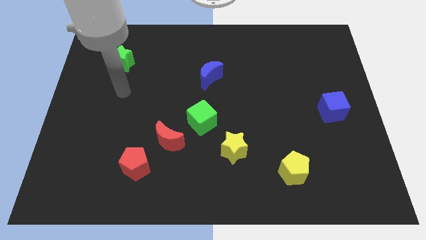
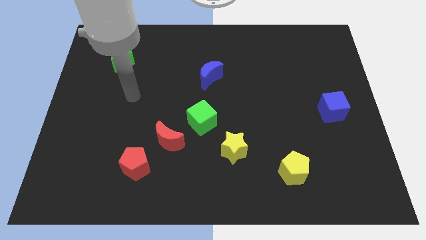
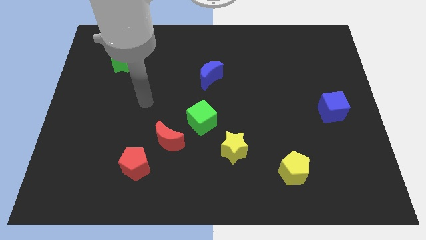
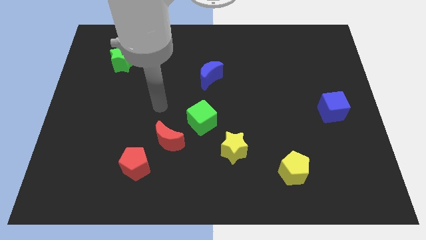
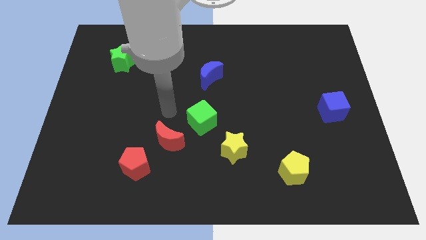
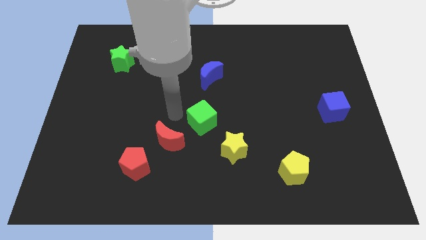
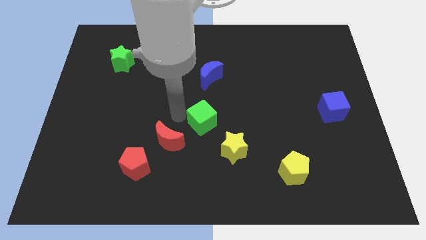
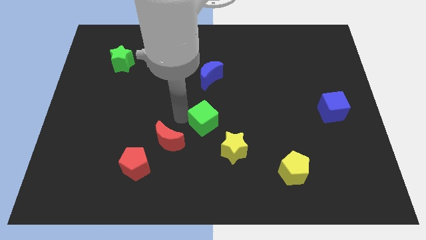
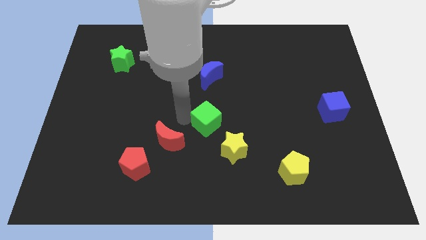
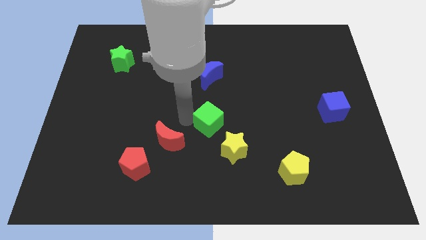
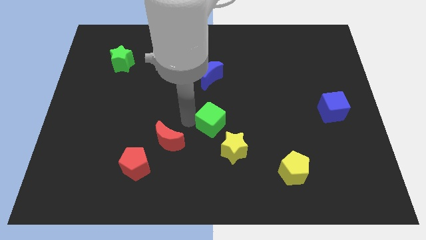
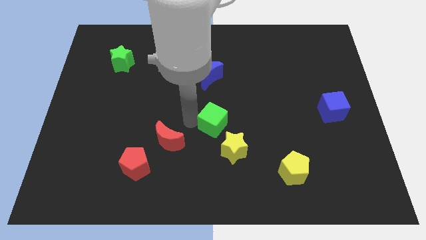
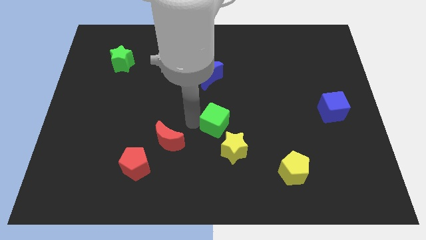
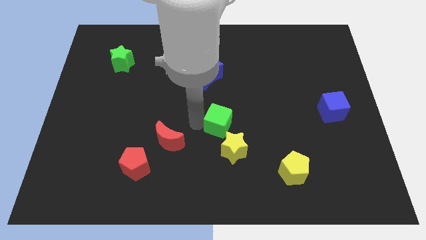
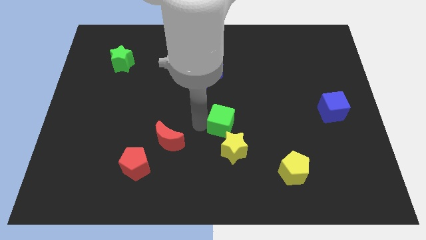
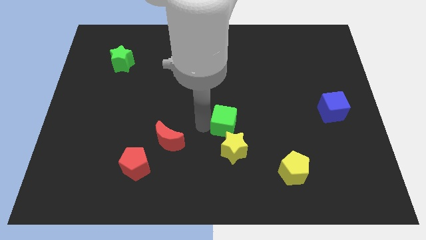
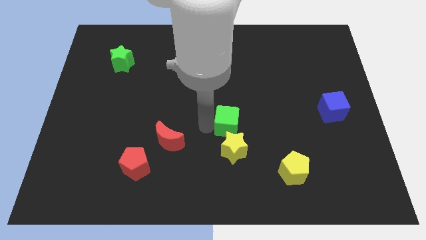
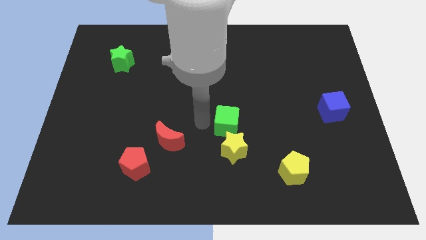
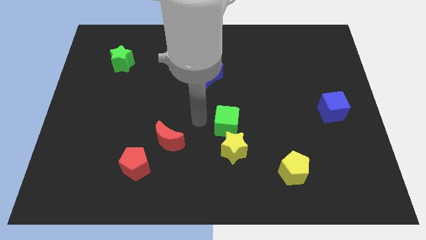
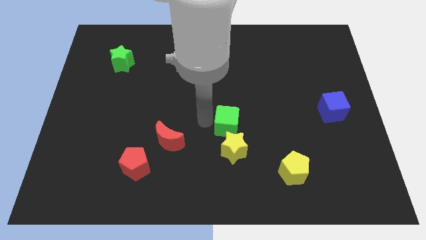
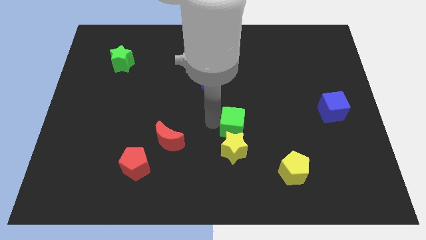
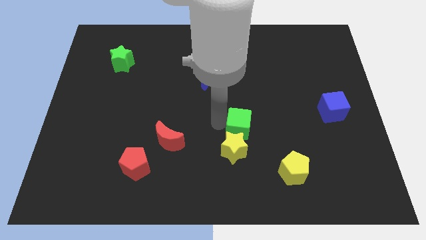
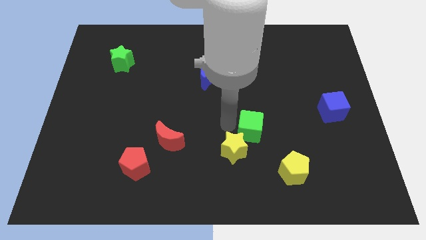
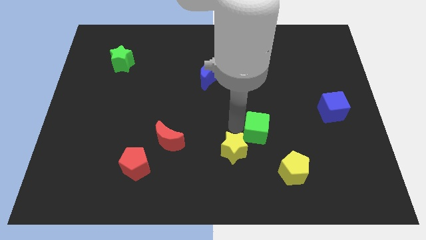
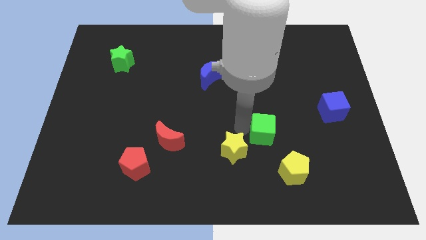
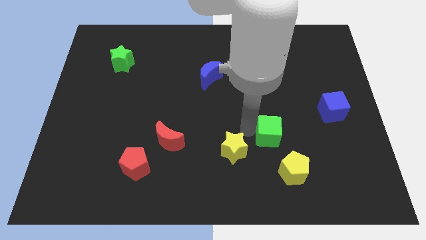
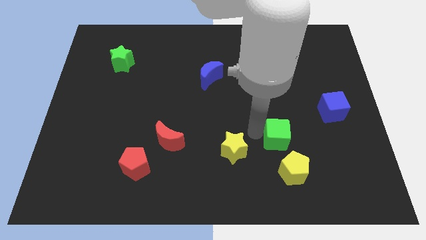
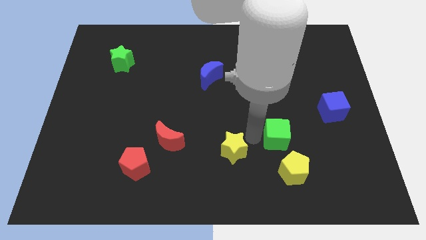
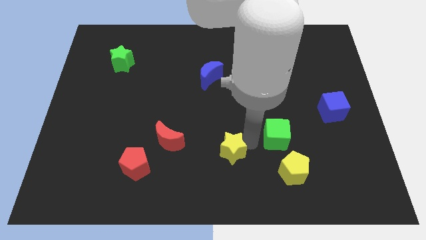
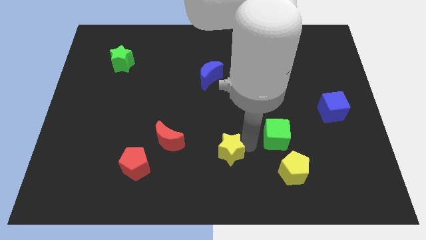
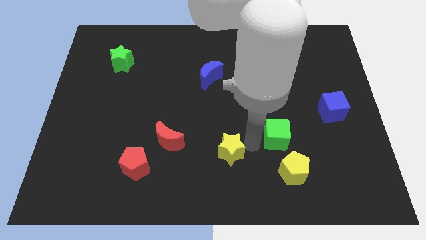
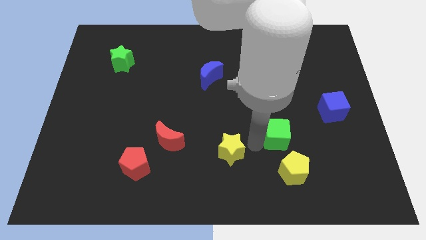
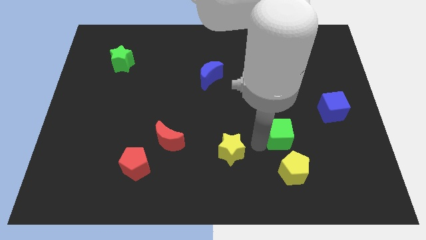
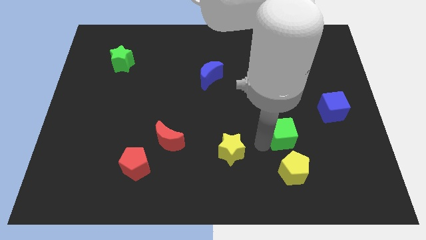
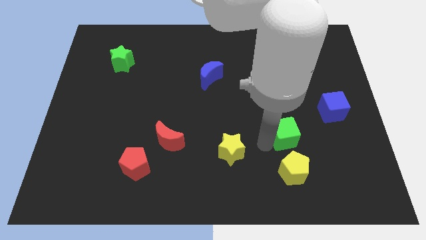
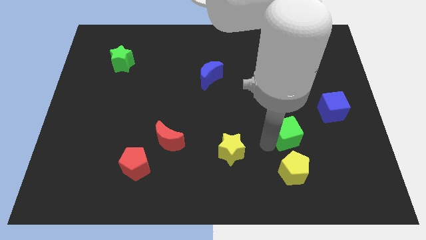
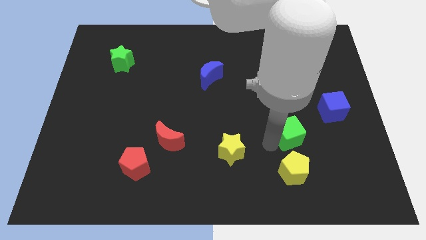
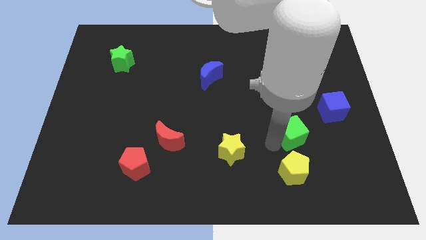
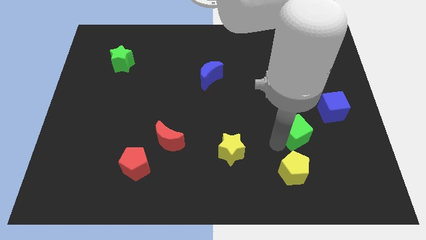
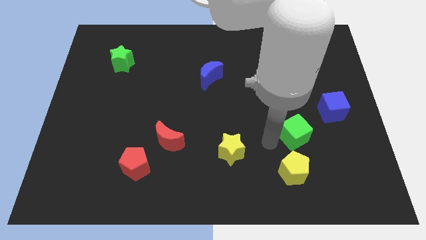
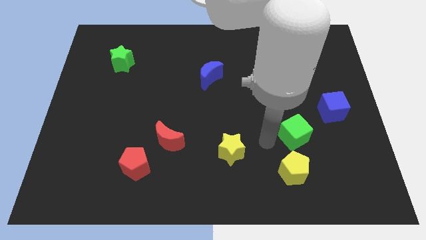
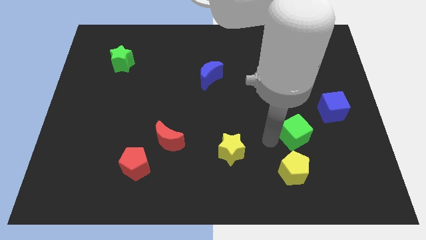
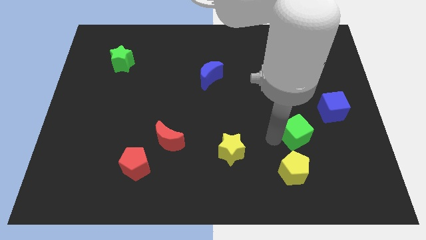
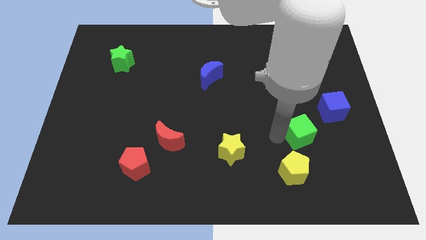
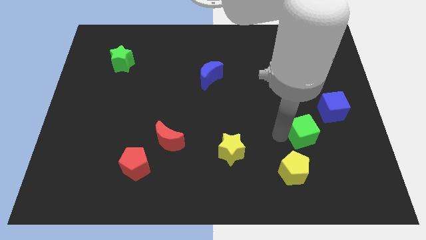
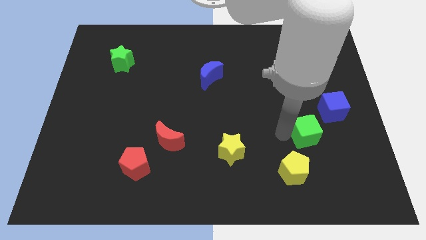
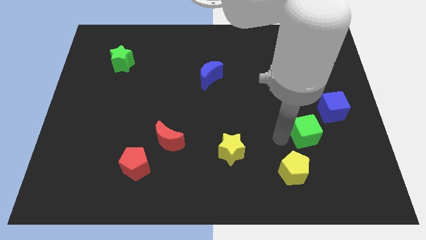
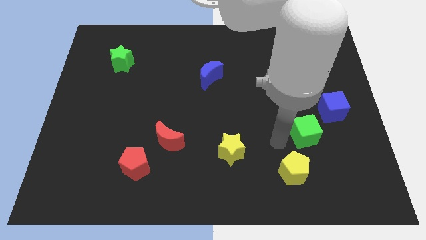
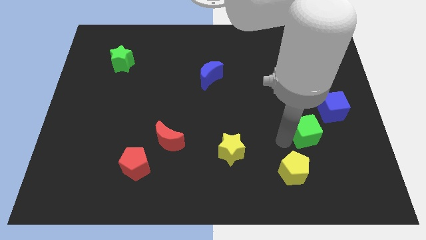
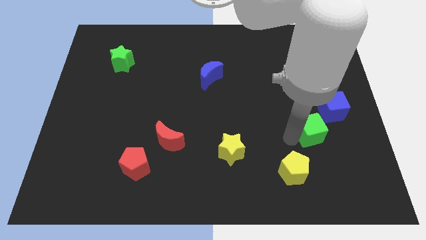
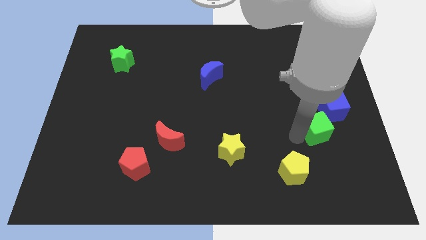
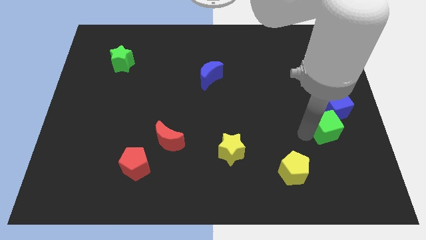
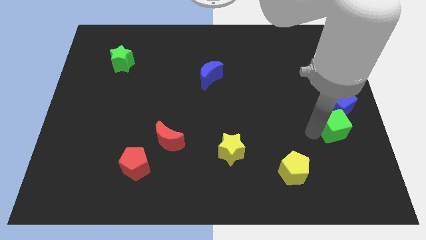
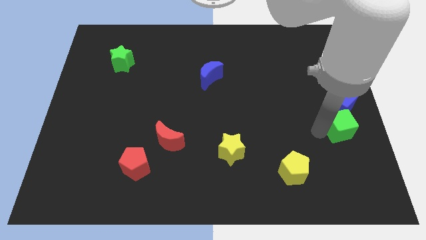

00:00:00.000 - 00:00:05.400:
slide the green cube to the right side of the board

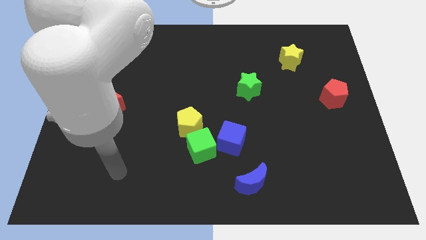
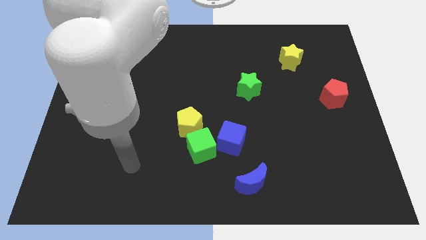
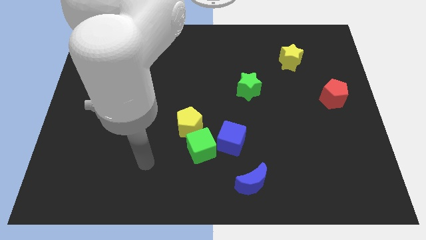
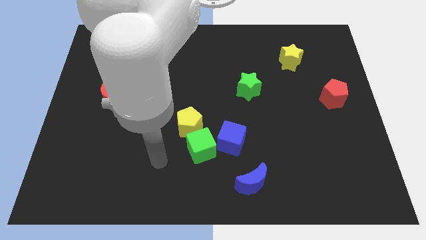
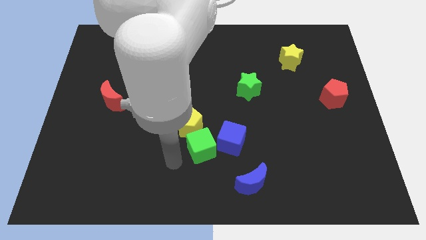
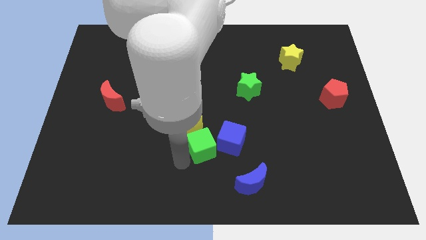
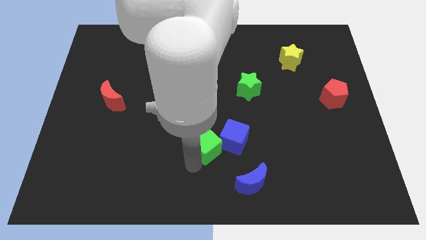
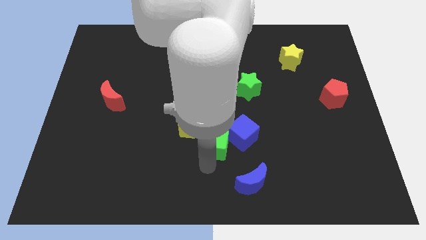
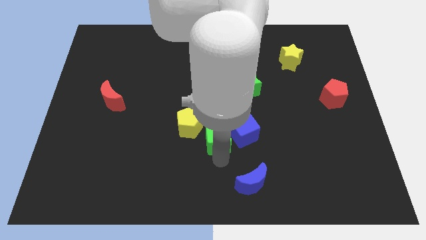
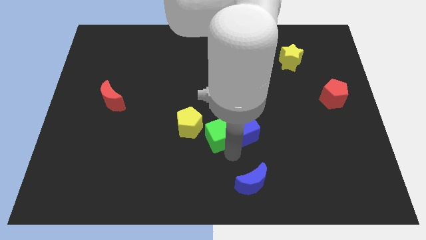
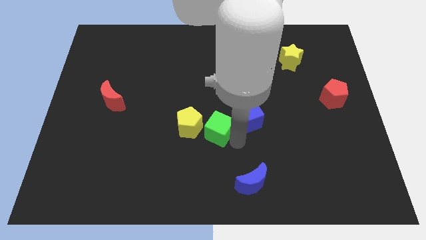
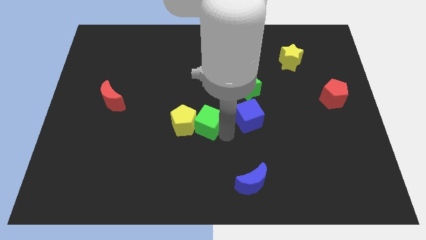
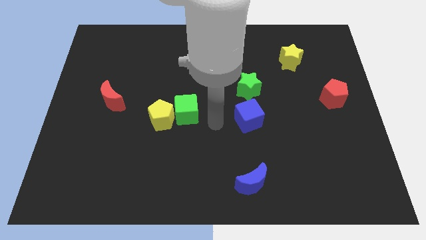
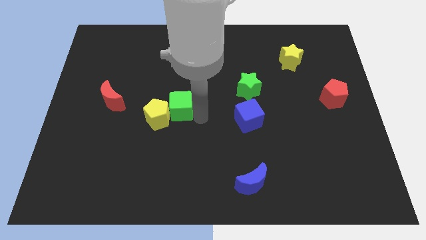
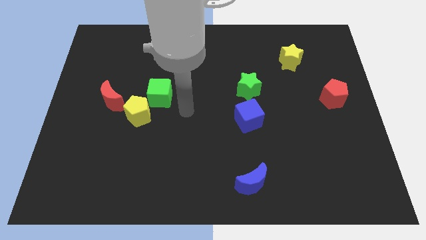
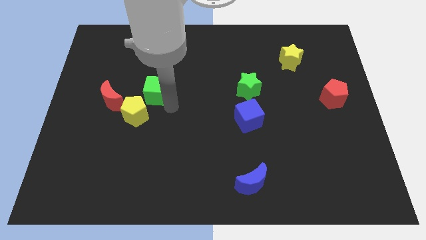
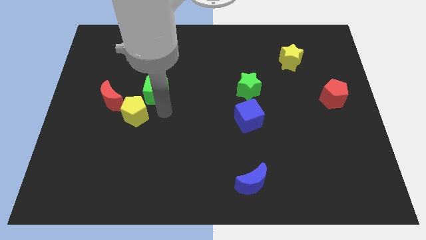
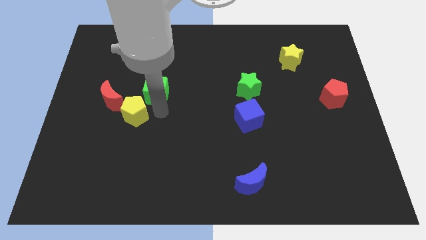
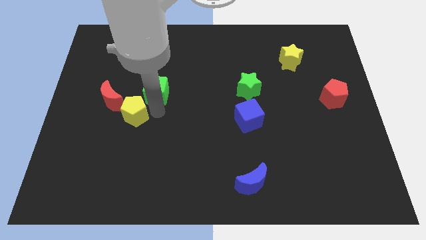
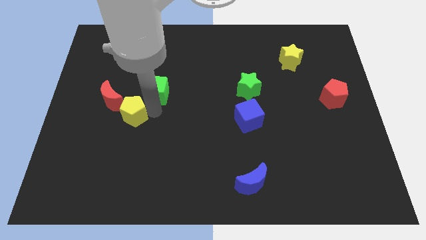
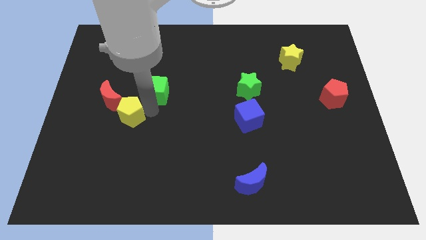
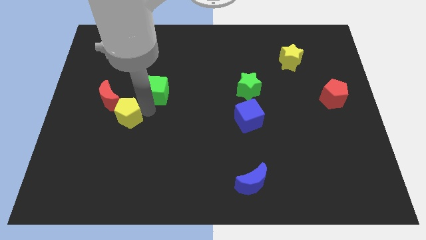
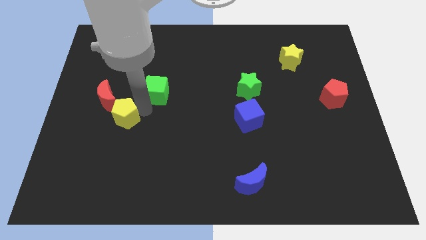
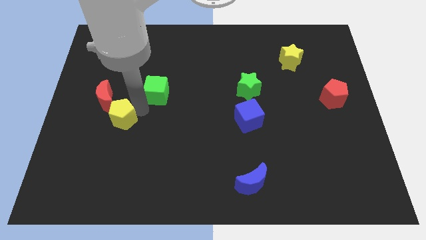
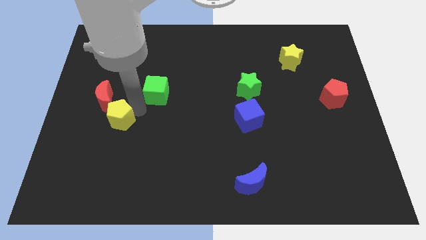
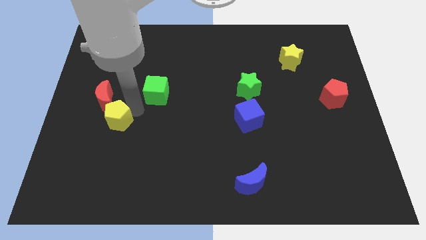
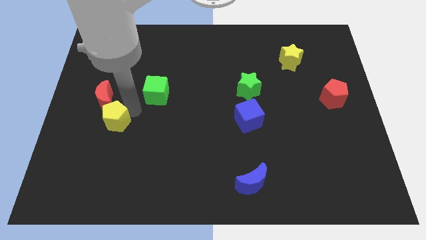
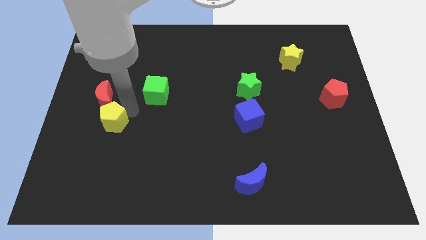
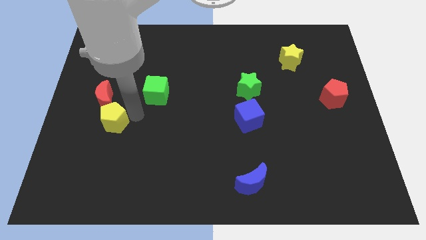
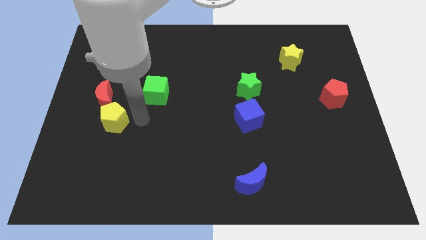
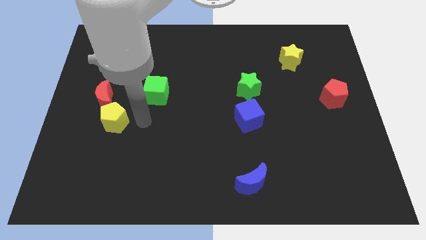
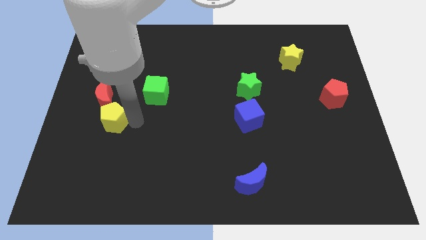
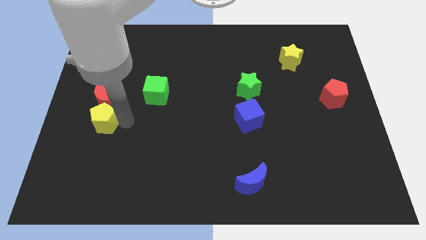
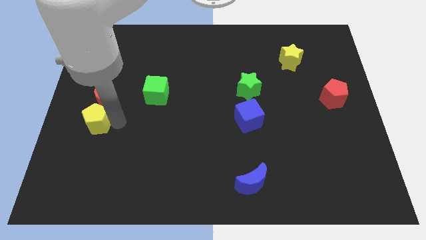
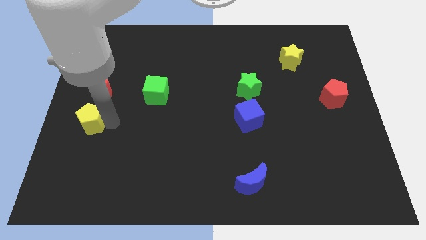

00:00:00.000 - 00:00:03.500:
slide the yellow pentagon to the center left
